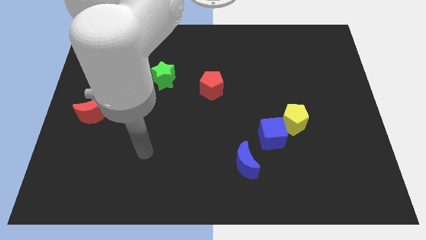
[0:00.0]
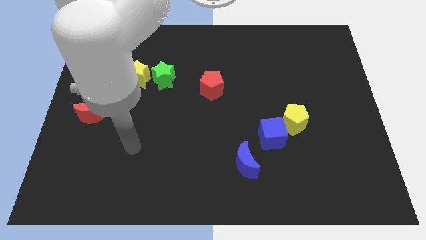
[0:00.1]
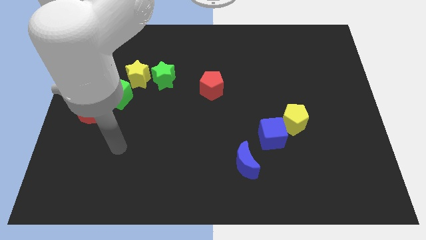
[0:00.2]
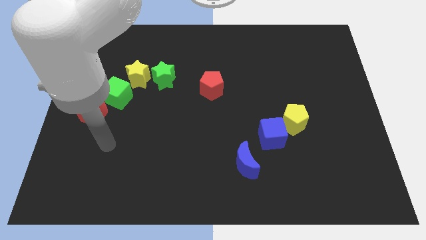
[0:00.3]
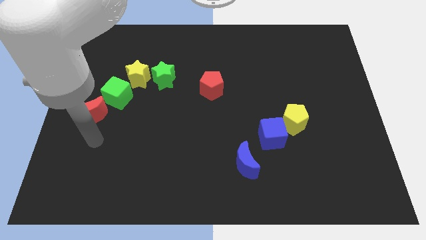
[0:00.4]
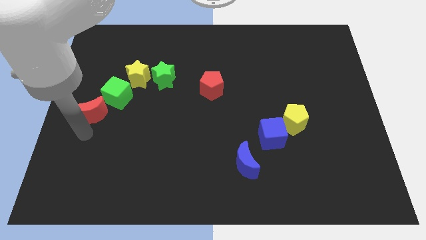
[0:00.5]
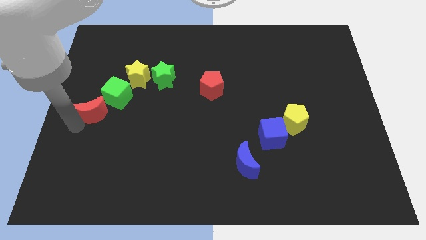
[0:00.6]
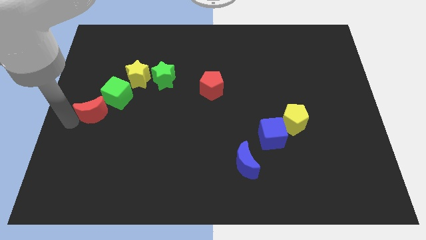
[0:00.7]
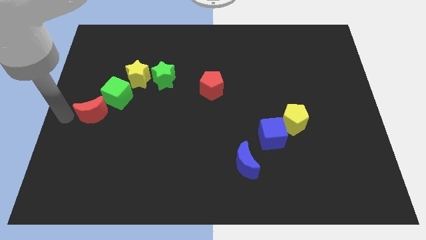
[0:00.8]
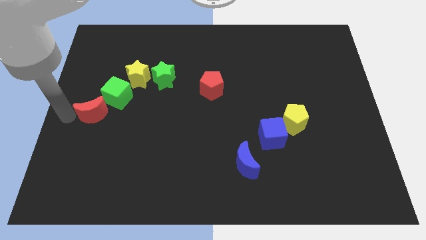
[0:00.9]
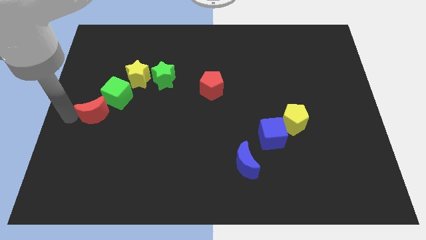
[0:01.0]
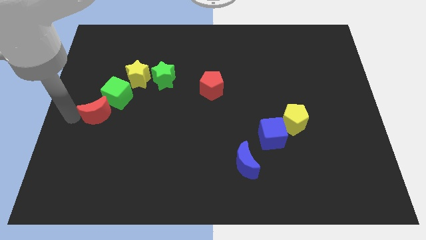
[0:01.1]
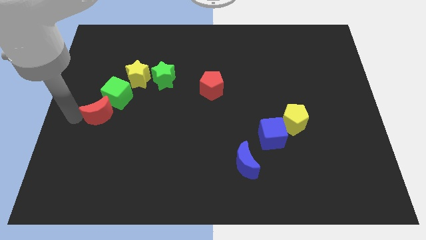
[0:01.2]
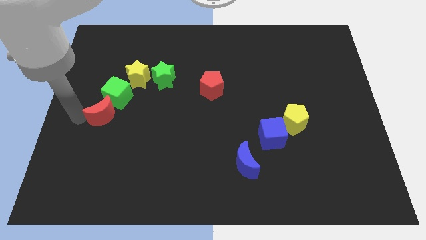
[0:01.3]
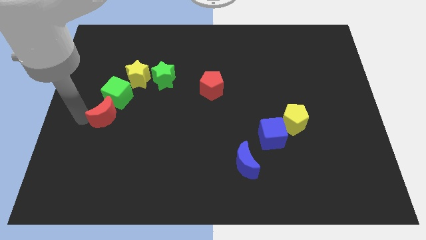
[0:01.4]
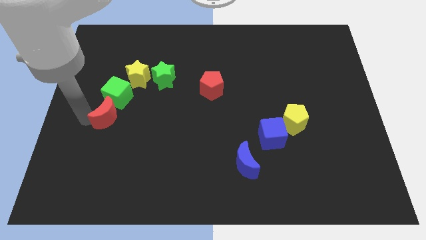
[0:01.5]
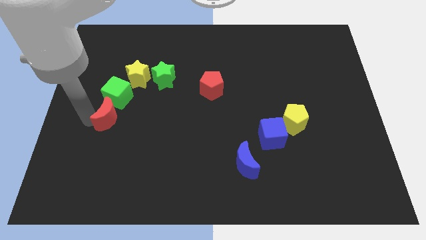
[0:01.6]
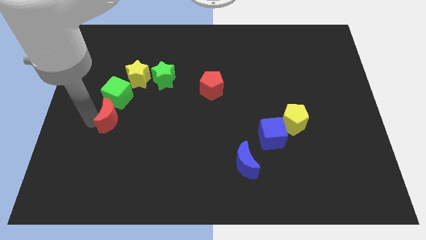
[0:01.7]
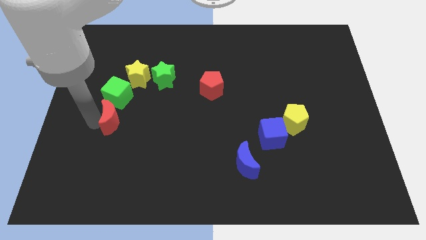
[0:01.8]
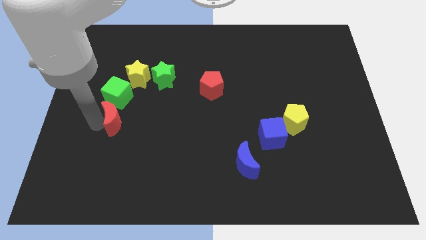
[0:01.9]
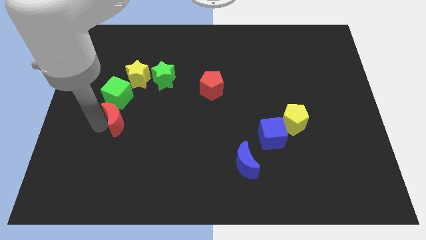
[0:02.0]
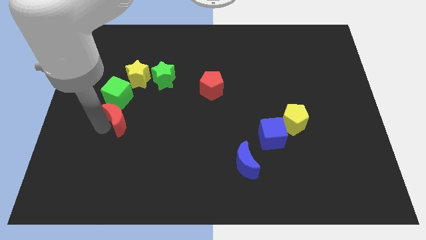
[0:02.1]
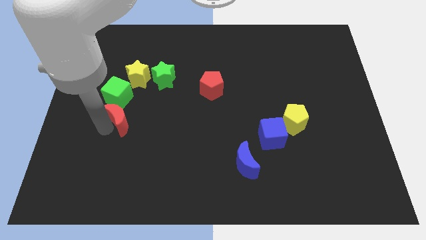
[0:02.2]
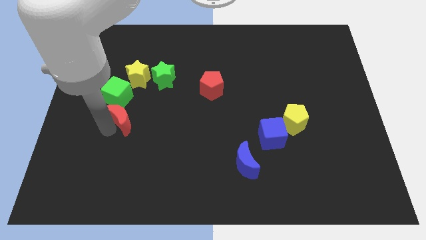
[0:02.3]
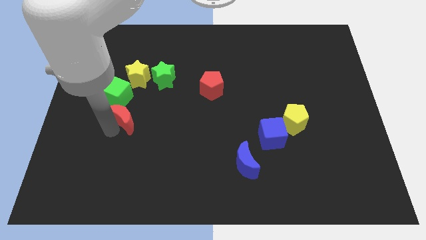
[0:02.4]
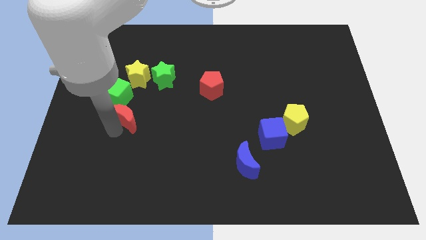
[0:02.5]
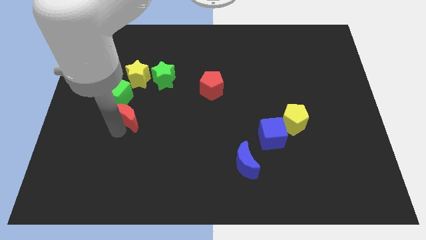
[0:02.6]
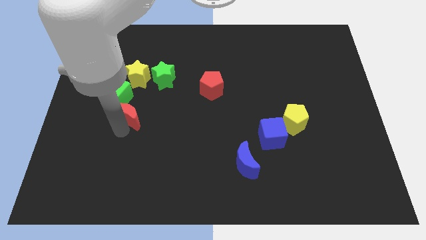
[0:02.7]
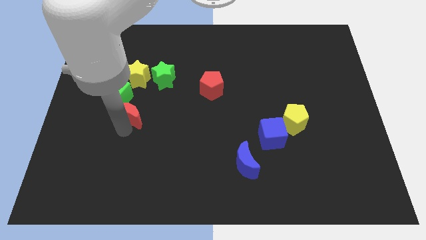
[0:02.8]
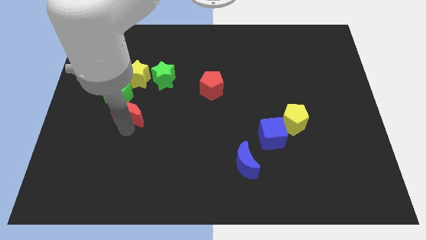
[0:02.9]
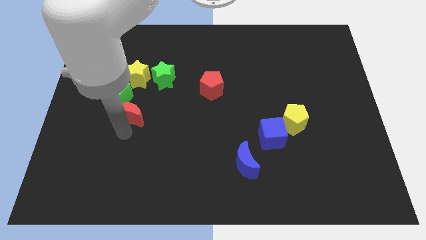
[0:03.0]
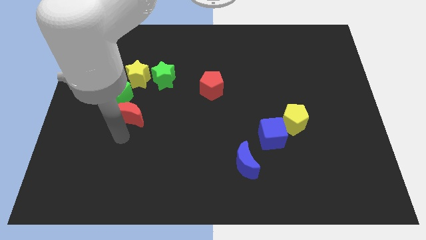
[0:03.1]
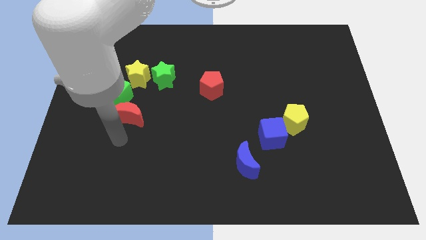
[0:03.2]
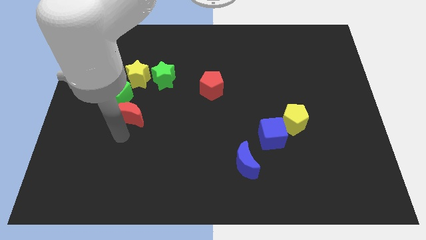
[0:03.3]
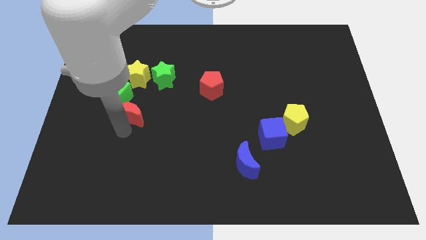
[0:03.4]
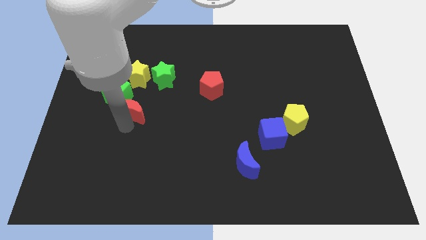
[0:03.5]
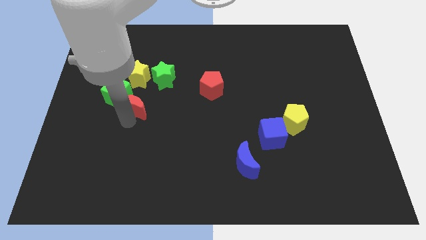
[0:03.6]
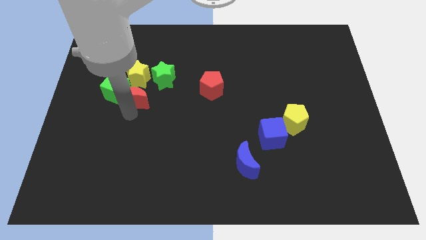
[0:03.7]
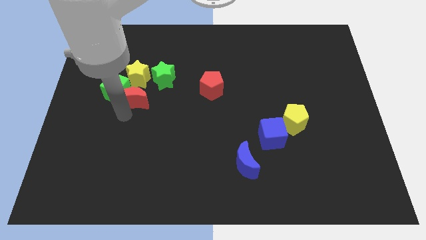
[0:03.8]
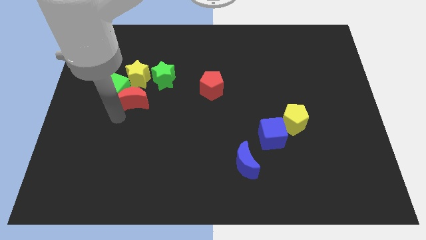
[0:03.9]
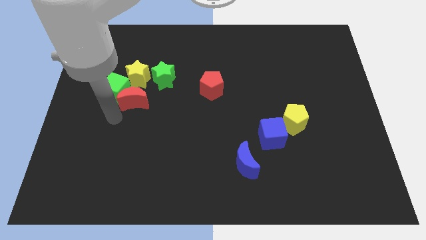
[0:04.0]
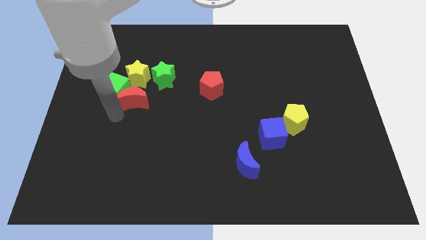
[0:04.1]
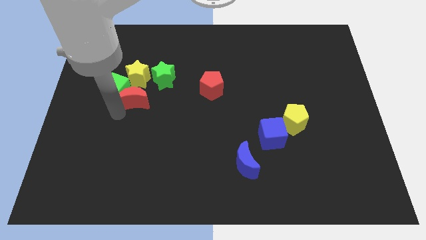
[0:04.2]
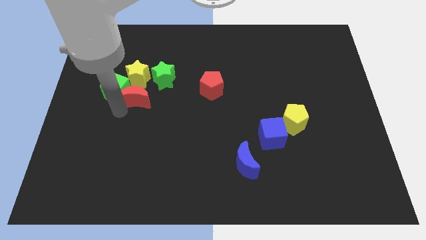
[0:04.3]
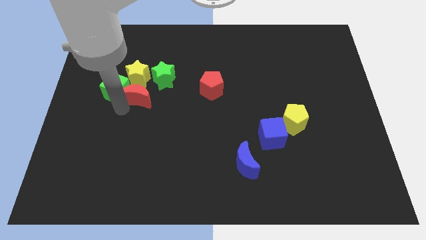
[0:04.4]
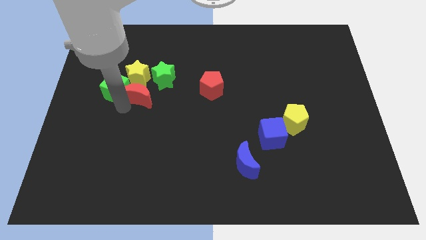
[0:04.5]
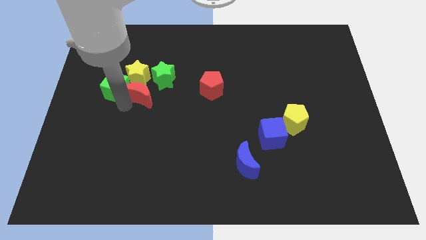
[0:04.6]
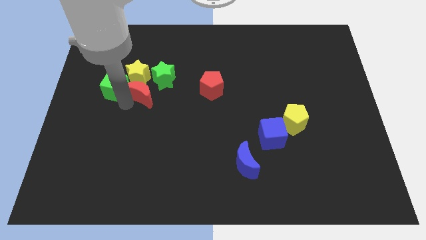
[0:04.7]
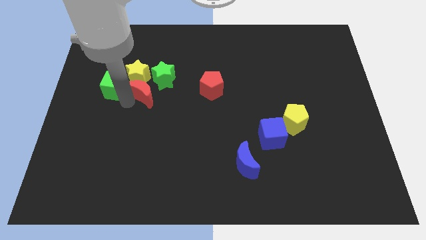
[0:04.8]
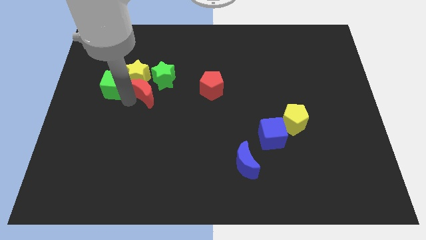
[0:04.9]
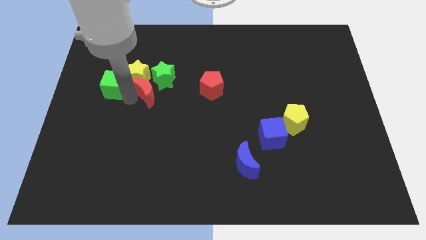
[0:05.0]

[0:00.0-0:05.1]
put the red moon to the green star

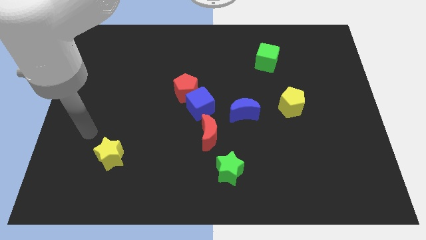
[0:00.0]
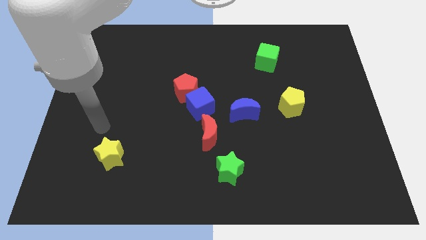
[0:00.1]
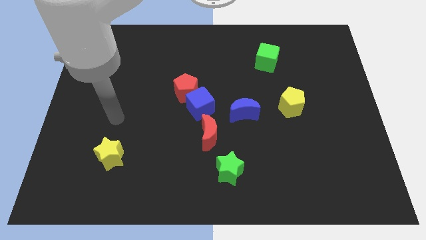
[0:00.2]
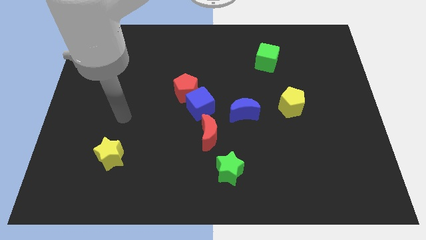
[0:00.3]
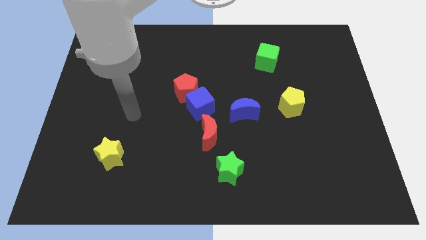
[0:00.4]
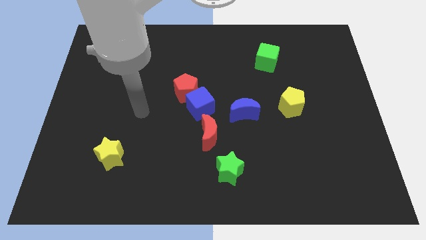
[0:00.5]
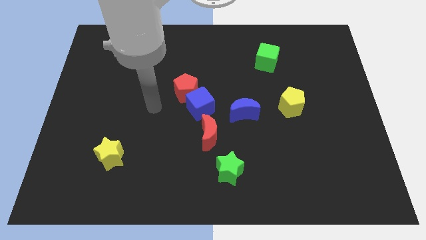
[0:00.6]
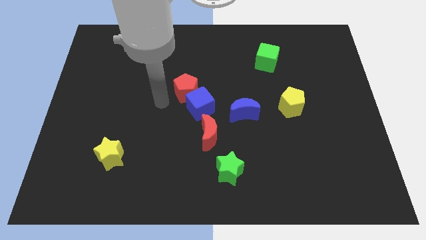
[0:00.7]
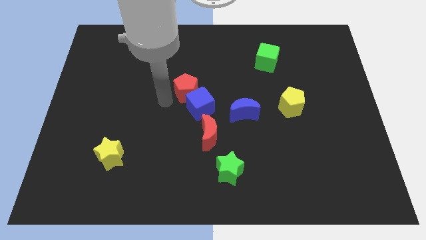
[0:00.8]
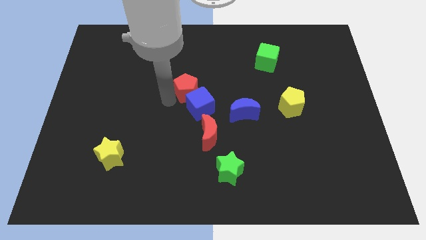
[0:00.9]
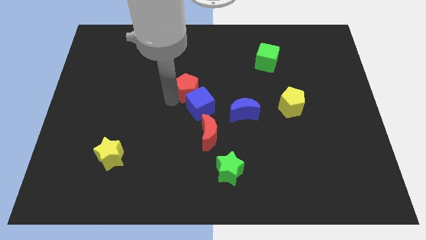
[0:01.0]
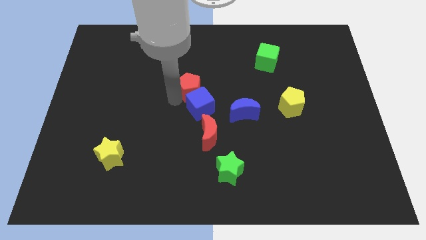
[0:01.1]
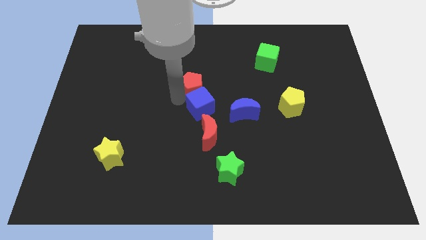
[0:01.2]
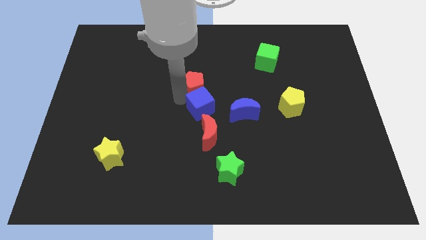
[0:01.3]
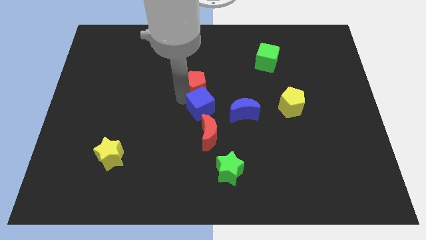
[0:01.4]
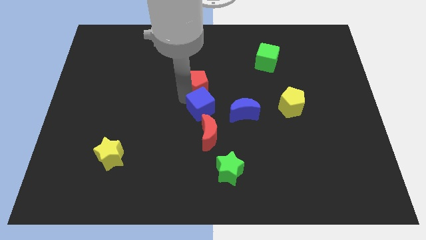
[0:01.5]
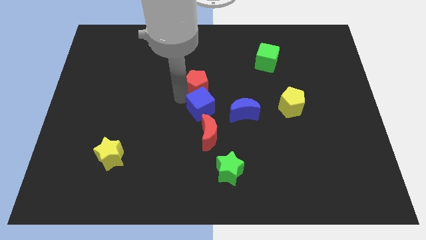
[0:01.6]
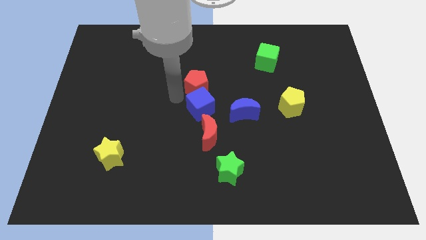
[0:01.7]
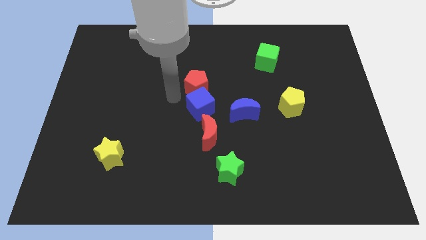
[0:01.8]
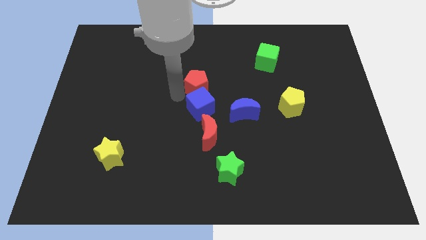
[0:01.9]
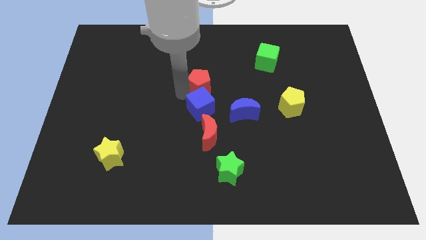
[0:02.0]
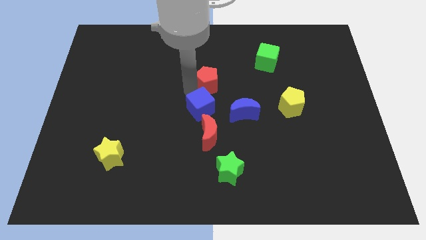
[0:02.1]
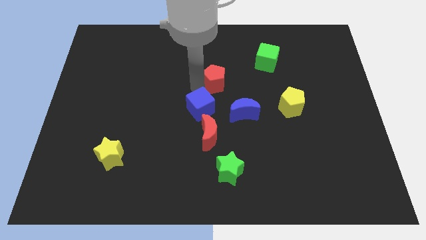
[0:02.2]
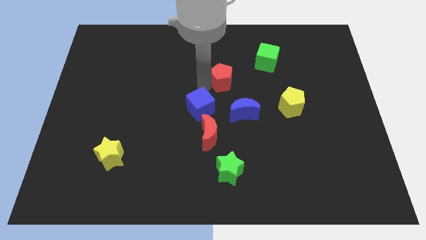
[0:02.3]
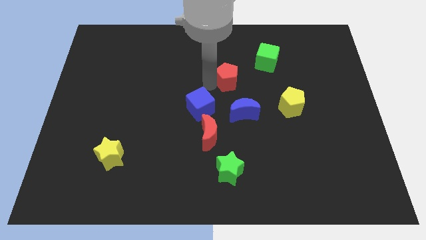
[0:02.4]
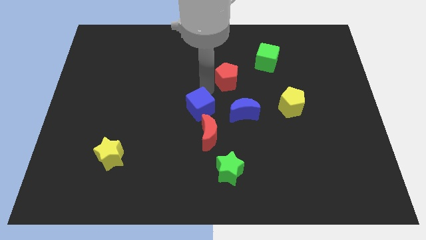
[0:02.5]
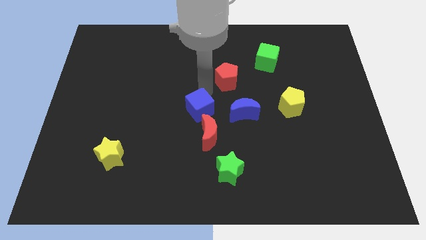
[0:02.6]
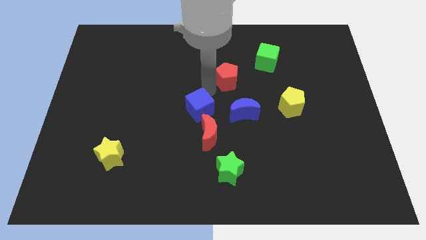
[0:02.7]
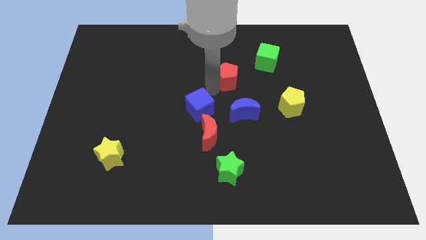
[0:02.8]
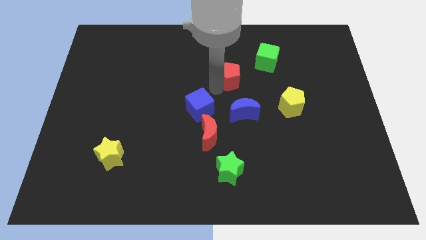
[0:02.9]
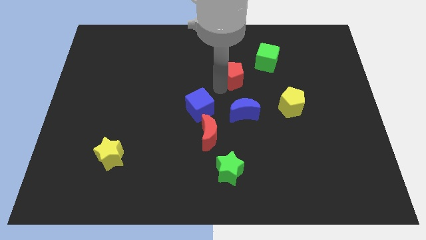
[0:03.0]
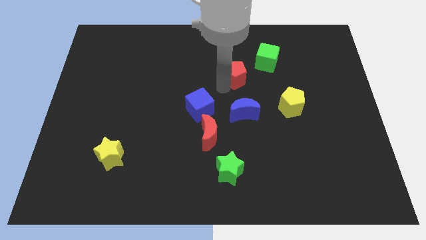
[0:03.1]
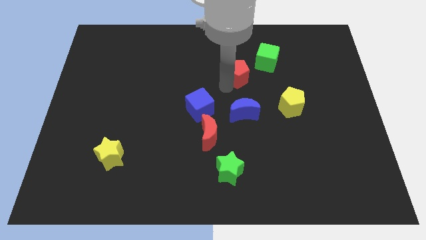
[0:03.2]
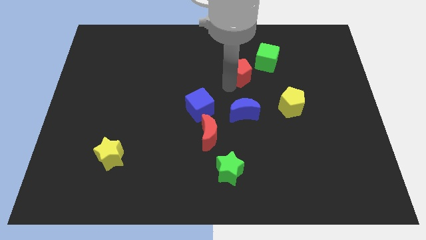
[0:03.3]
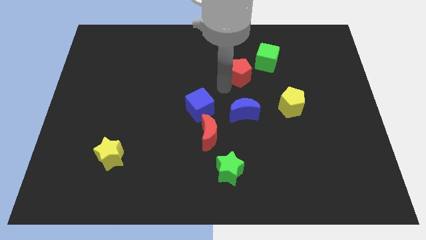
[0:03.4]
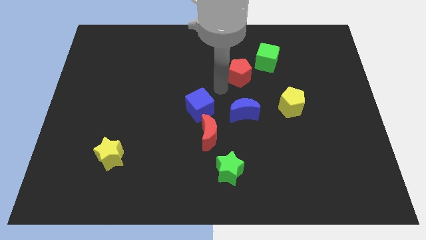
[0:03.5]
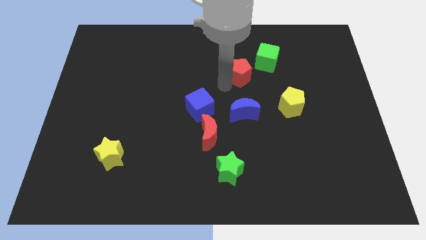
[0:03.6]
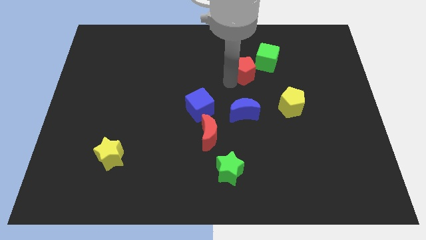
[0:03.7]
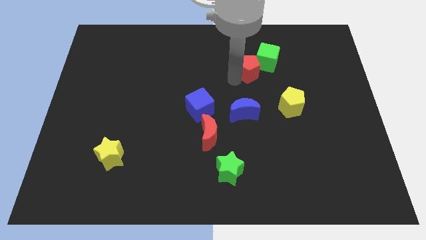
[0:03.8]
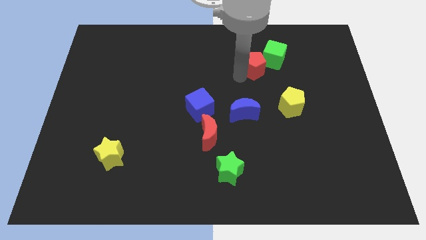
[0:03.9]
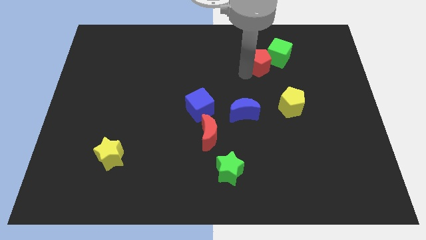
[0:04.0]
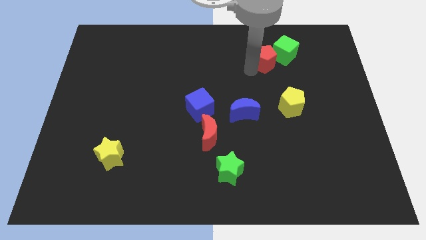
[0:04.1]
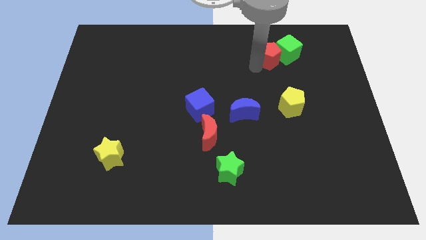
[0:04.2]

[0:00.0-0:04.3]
put the red pentagon next to the green cube
